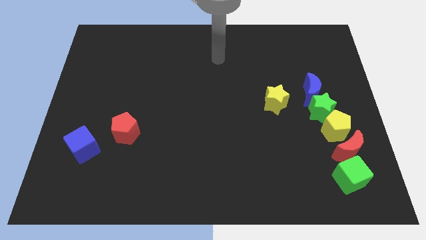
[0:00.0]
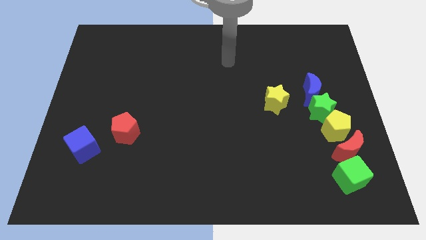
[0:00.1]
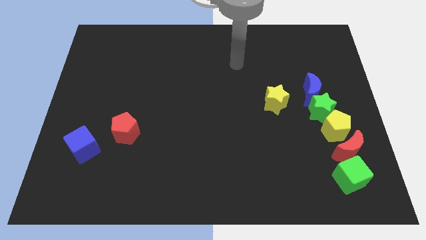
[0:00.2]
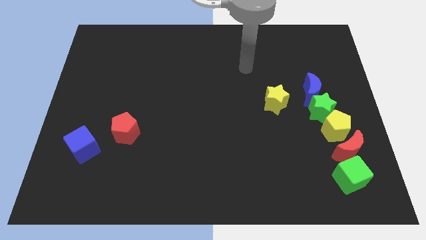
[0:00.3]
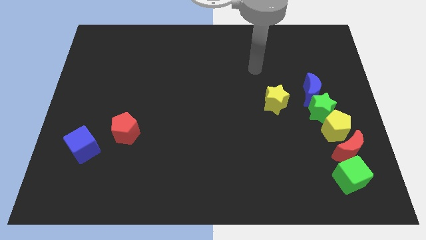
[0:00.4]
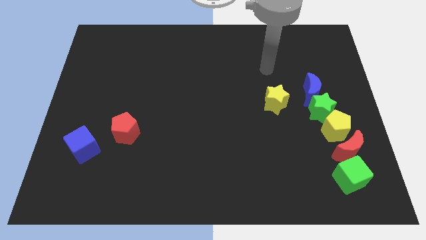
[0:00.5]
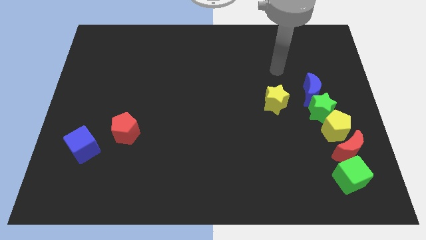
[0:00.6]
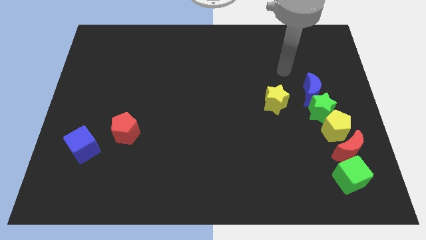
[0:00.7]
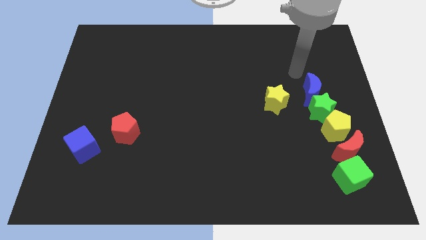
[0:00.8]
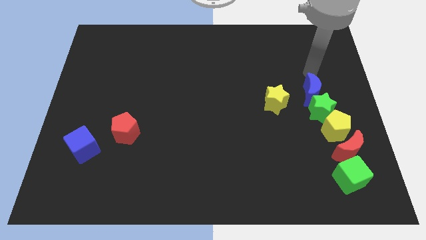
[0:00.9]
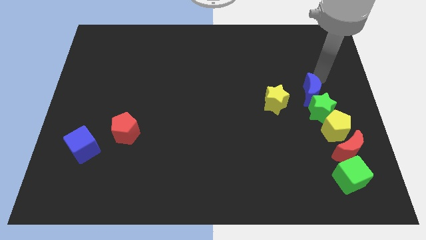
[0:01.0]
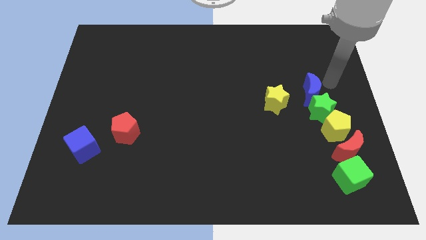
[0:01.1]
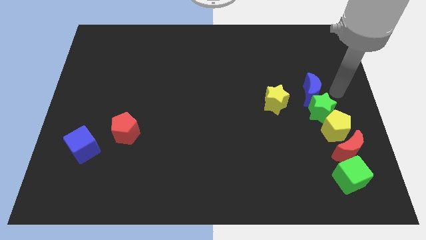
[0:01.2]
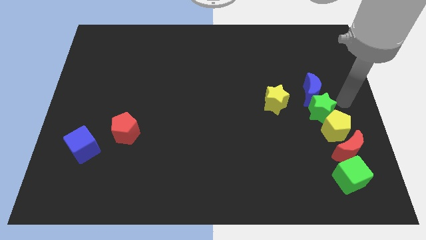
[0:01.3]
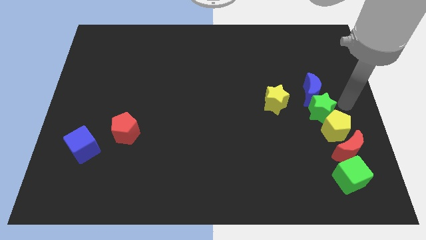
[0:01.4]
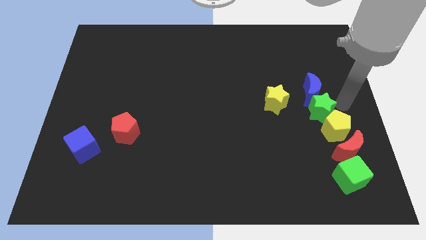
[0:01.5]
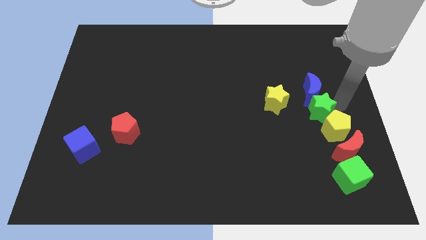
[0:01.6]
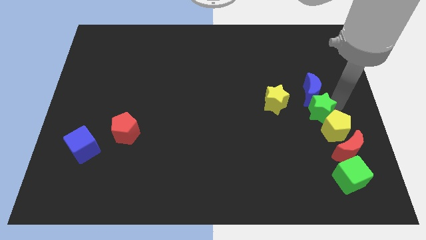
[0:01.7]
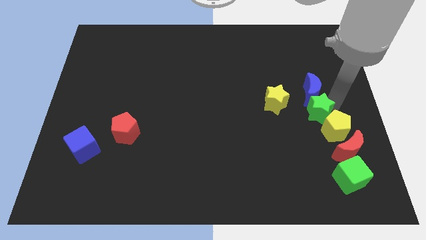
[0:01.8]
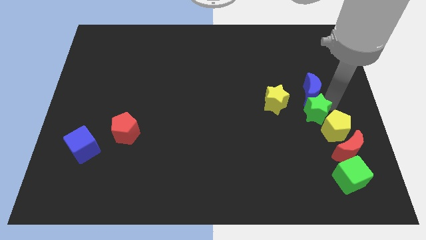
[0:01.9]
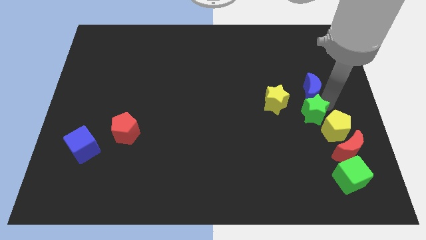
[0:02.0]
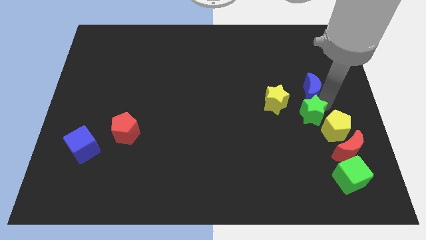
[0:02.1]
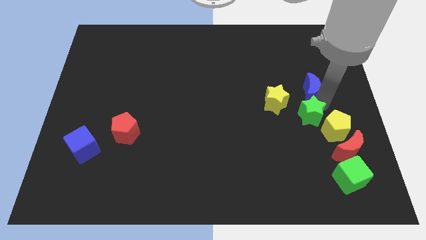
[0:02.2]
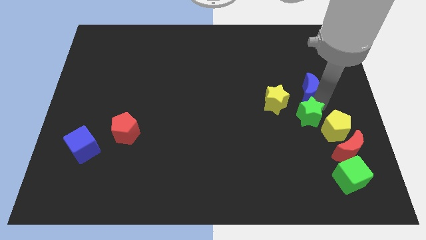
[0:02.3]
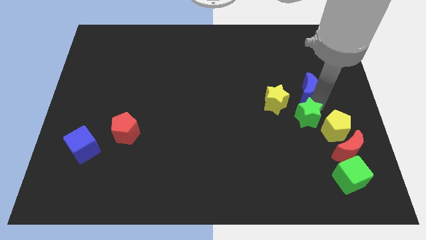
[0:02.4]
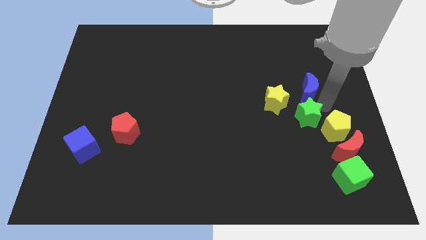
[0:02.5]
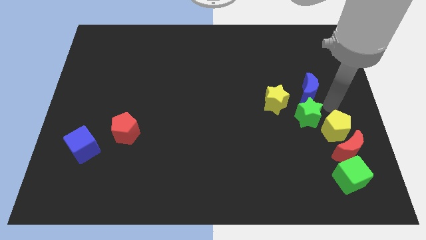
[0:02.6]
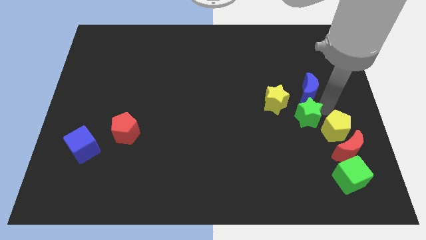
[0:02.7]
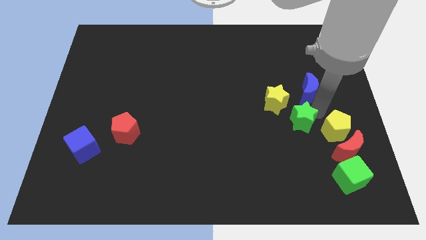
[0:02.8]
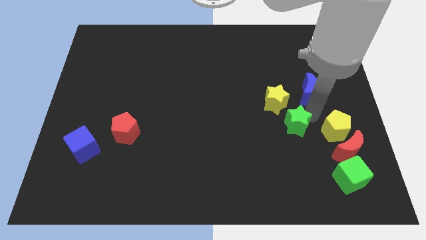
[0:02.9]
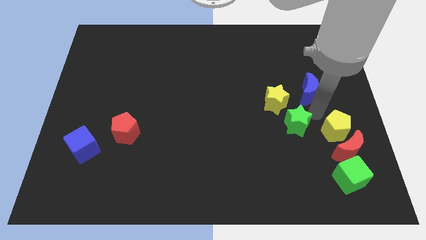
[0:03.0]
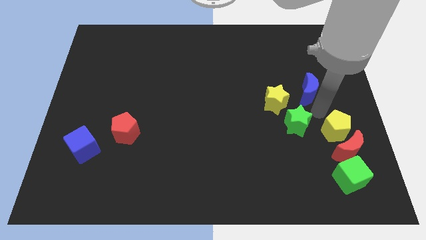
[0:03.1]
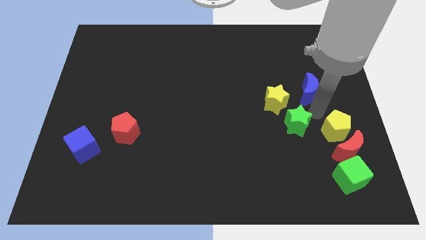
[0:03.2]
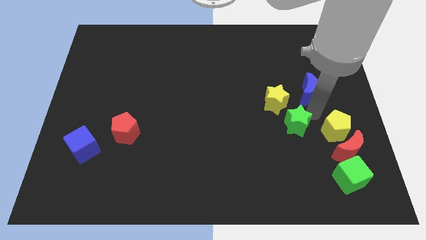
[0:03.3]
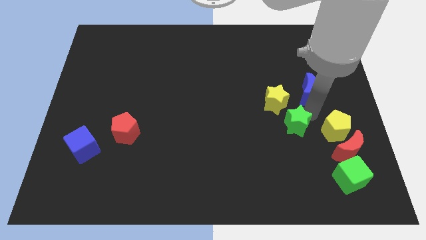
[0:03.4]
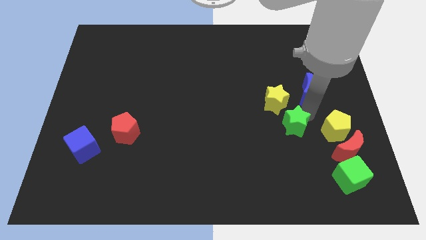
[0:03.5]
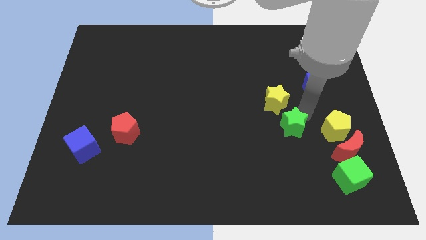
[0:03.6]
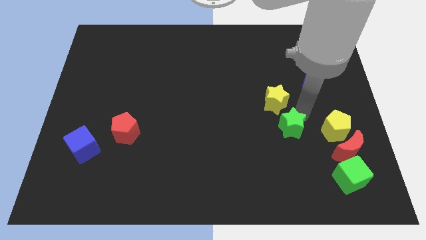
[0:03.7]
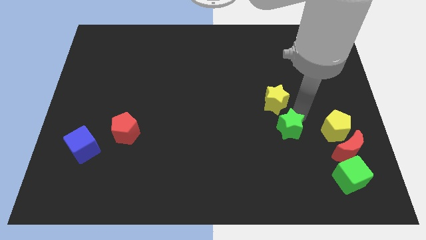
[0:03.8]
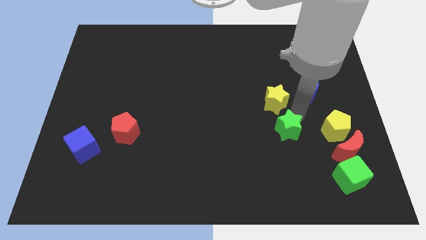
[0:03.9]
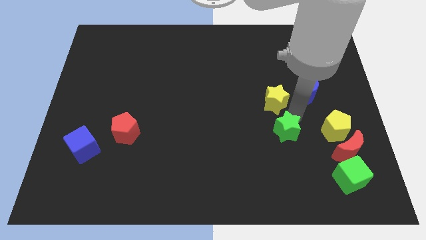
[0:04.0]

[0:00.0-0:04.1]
pull the green star apart from the blue moon and yellow pentagon

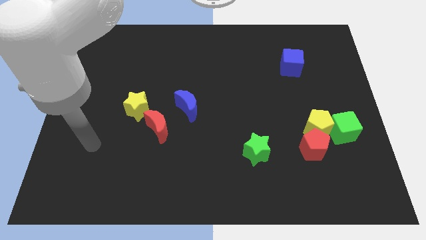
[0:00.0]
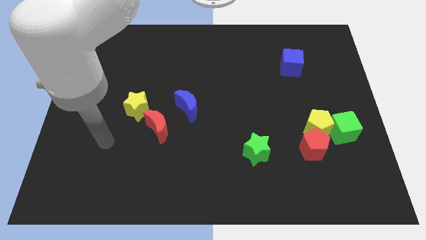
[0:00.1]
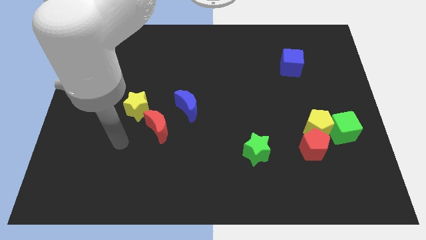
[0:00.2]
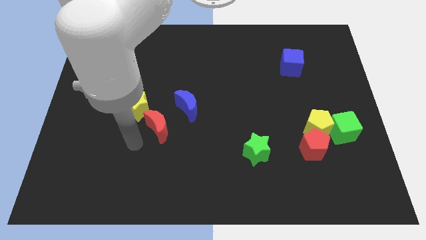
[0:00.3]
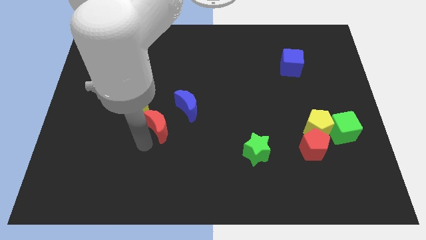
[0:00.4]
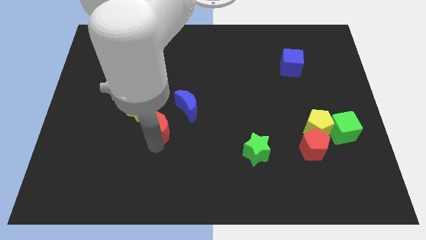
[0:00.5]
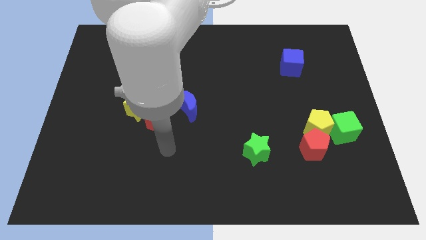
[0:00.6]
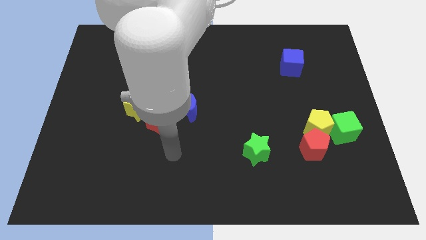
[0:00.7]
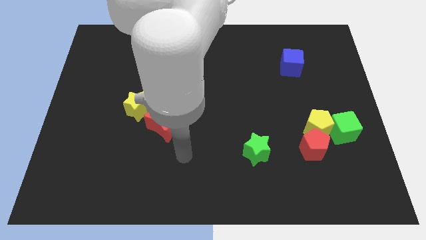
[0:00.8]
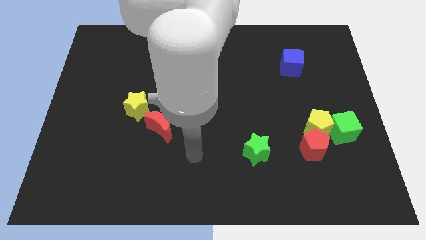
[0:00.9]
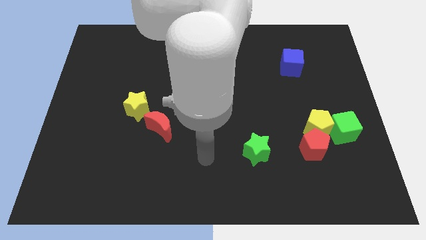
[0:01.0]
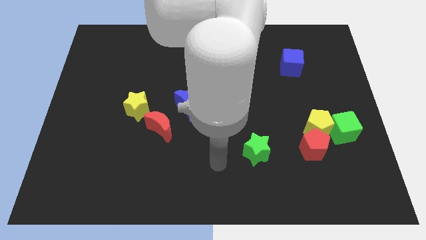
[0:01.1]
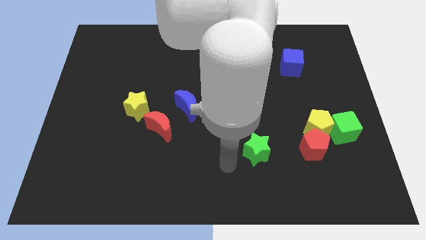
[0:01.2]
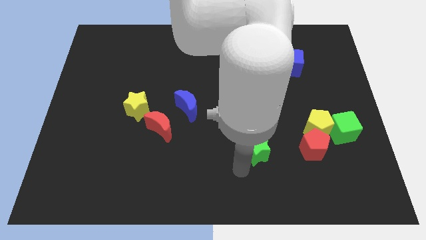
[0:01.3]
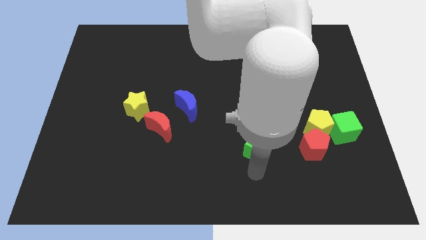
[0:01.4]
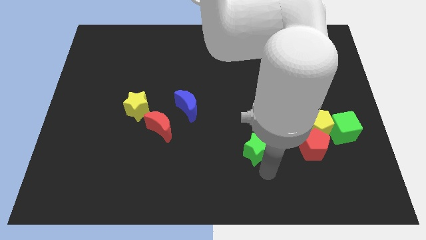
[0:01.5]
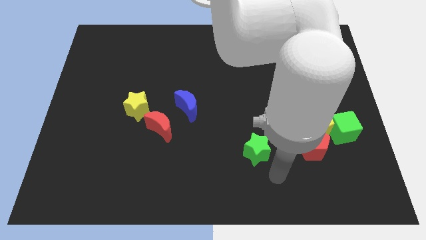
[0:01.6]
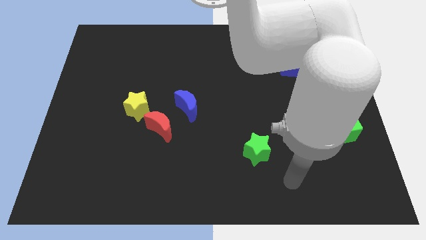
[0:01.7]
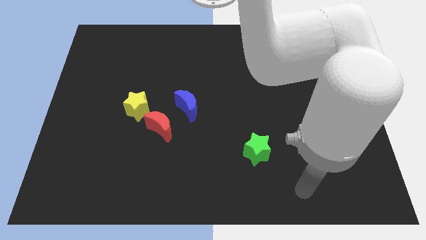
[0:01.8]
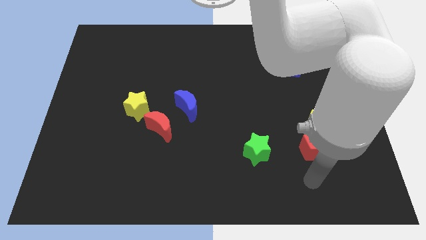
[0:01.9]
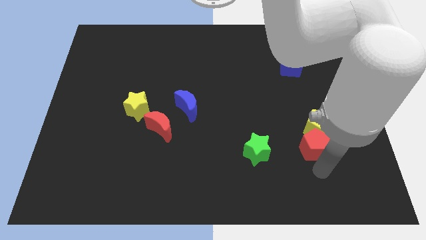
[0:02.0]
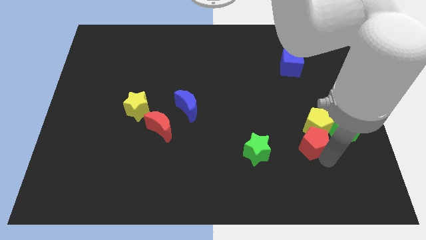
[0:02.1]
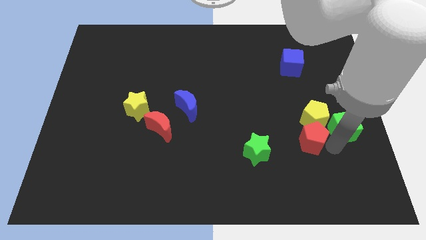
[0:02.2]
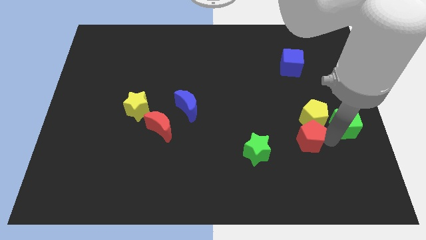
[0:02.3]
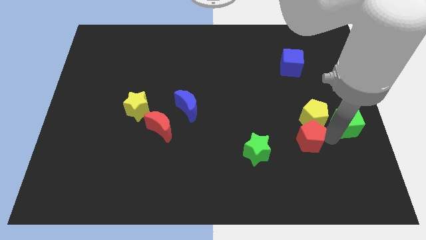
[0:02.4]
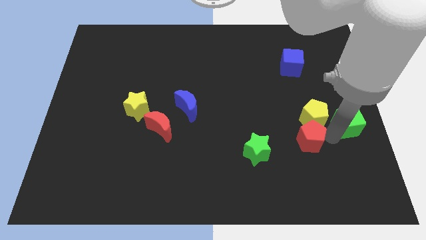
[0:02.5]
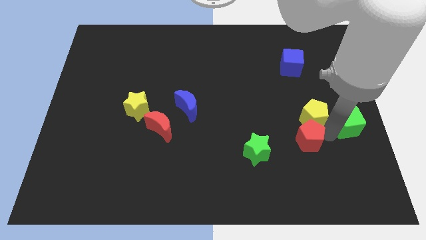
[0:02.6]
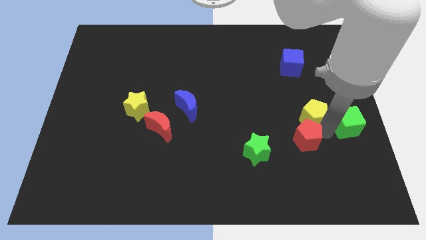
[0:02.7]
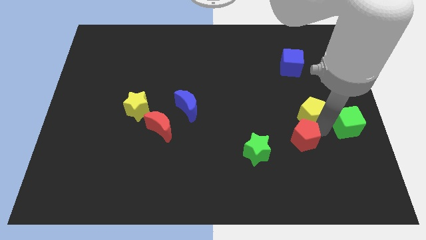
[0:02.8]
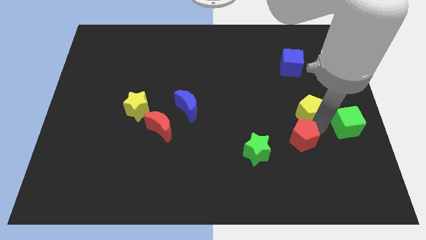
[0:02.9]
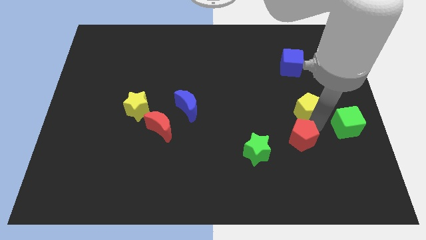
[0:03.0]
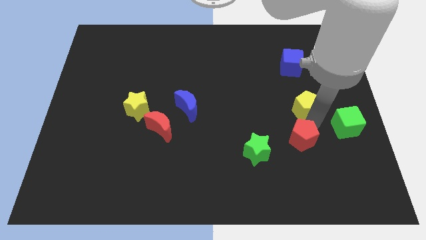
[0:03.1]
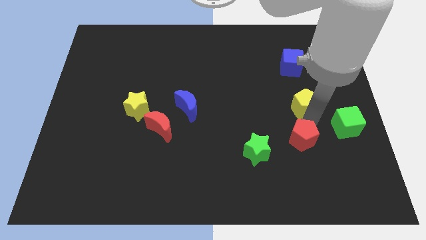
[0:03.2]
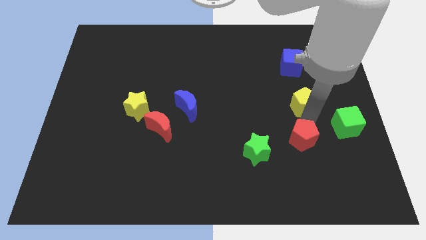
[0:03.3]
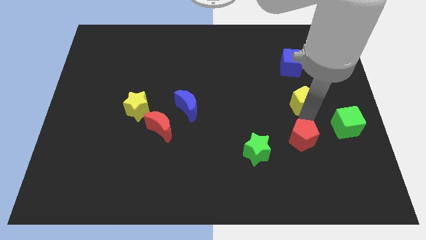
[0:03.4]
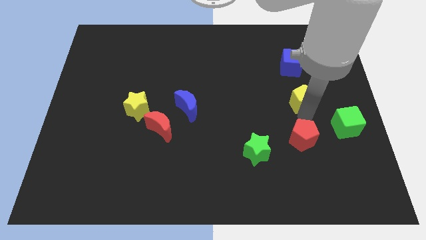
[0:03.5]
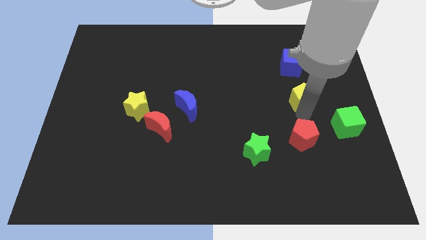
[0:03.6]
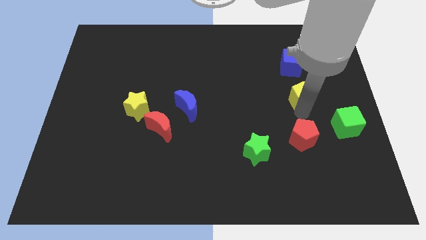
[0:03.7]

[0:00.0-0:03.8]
move the yellow pentagon away from the red pentagon and green cube

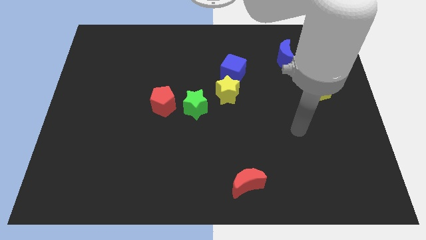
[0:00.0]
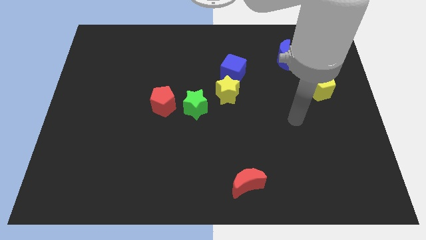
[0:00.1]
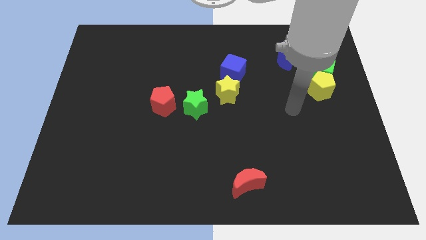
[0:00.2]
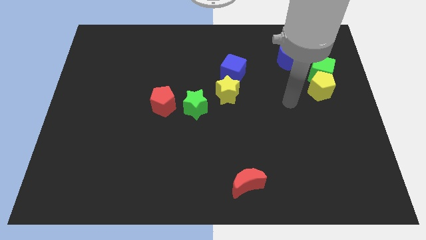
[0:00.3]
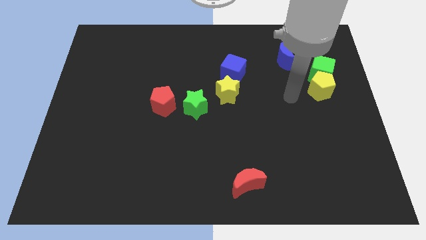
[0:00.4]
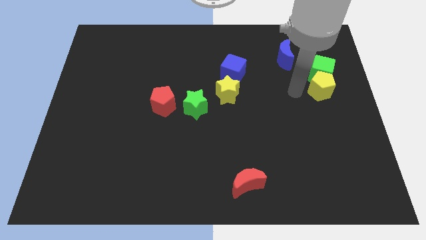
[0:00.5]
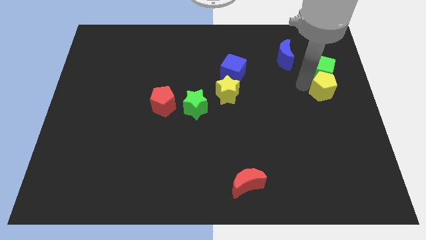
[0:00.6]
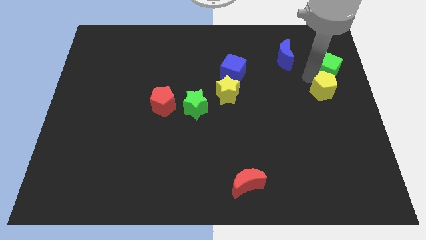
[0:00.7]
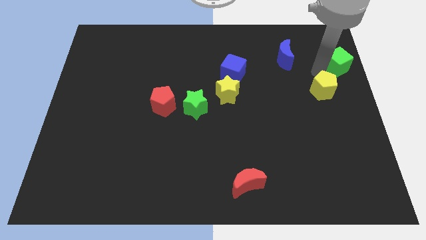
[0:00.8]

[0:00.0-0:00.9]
move the yellow pentagon away from the green cube

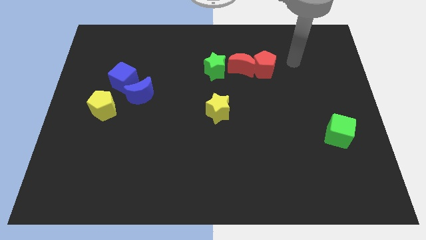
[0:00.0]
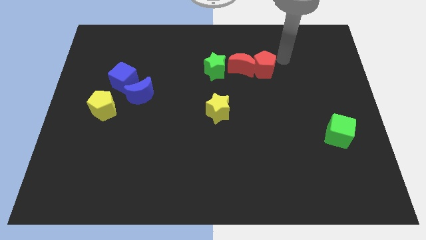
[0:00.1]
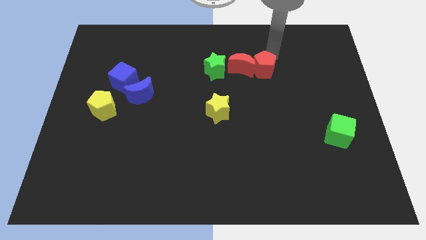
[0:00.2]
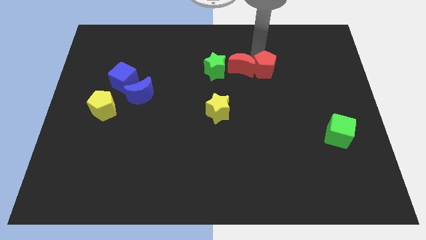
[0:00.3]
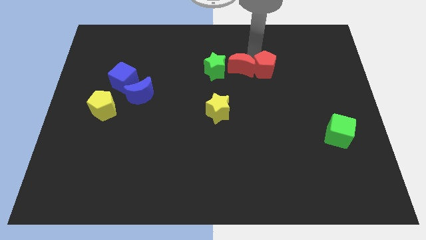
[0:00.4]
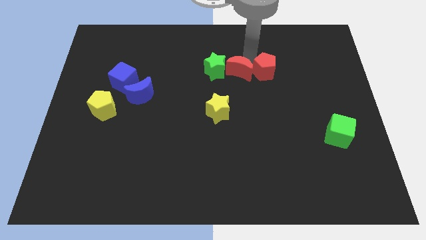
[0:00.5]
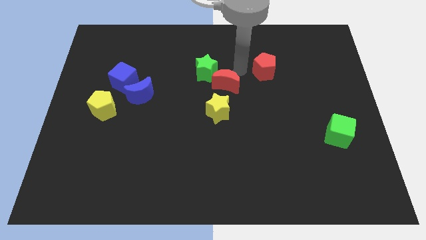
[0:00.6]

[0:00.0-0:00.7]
pull the red pentagon apart from the red moon
